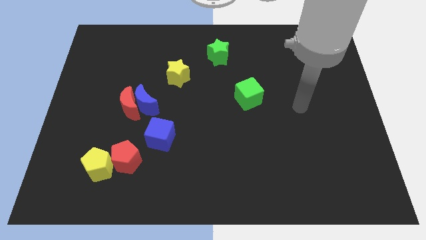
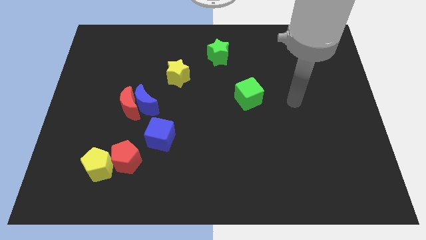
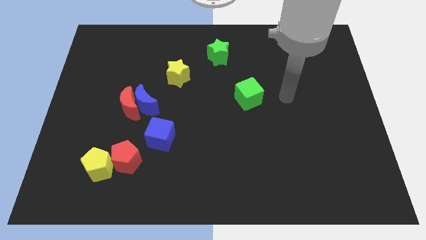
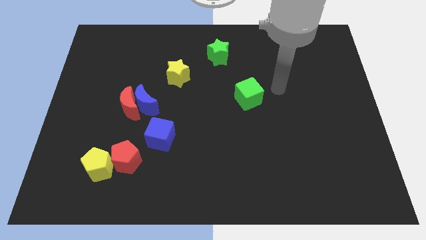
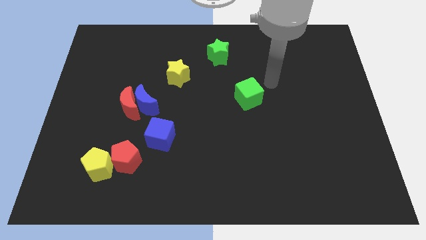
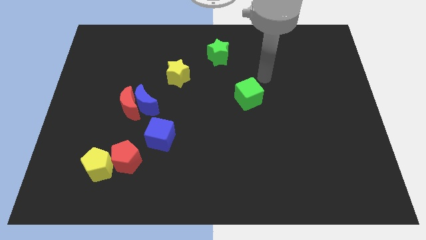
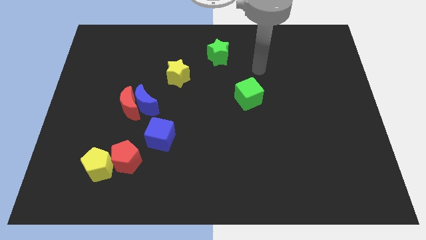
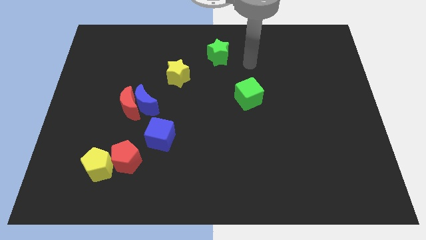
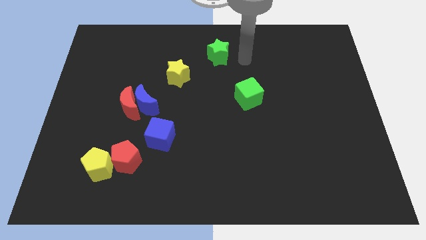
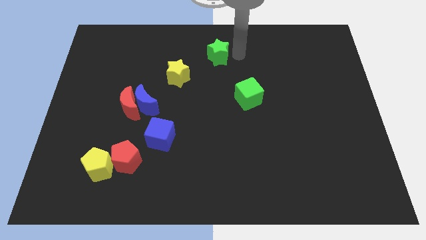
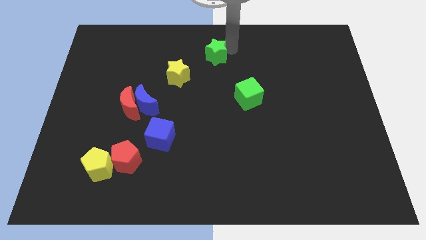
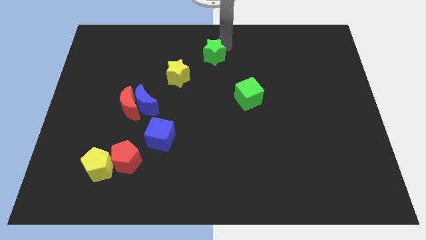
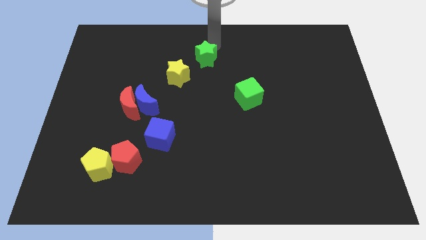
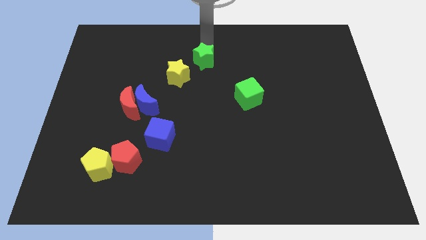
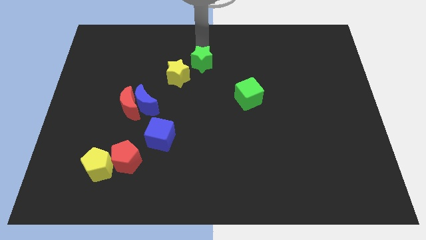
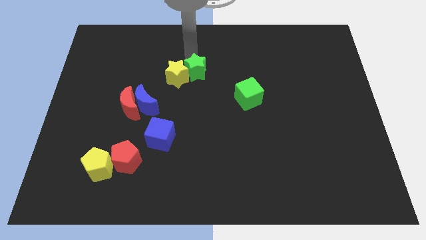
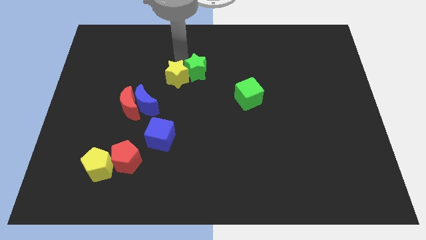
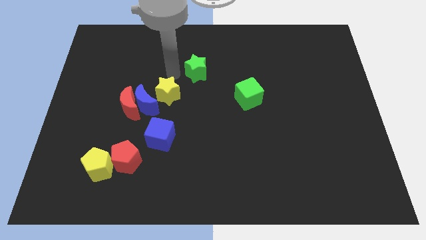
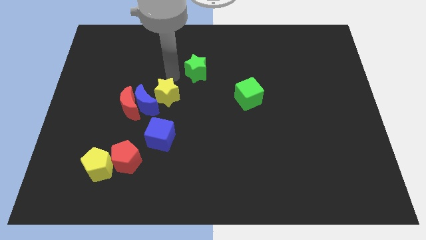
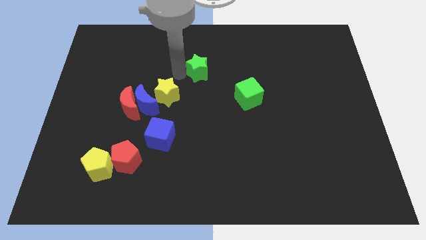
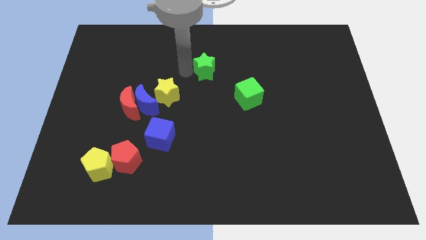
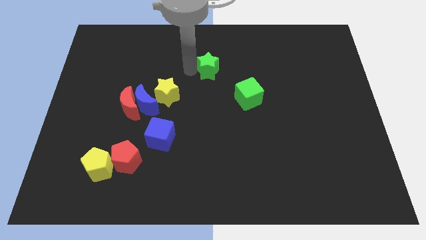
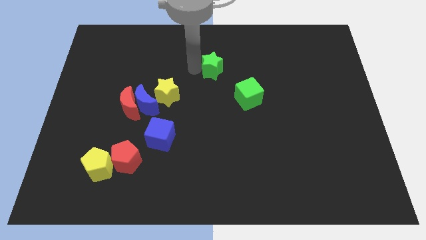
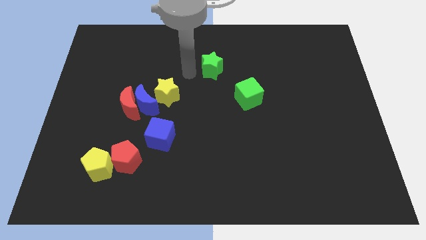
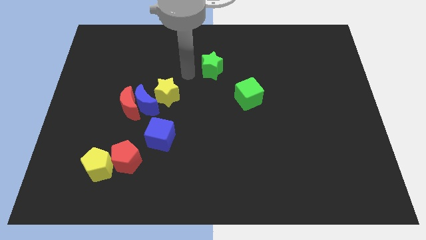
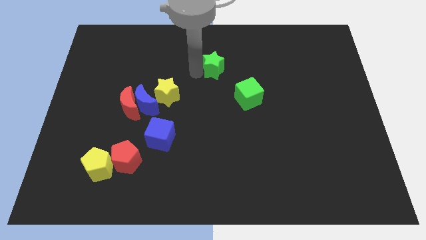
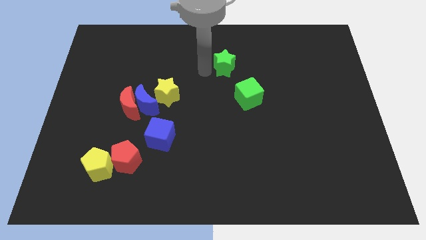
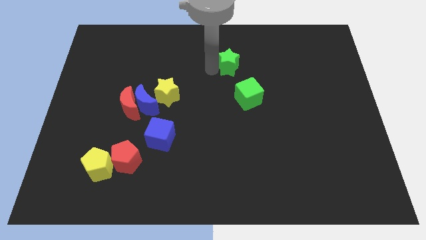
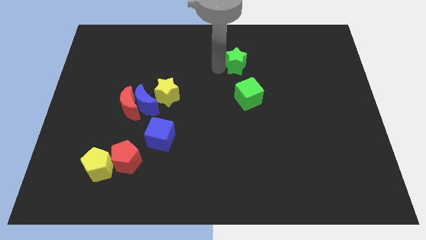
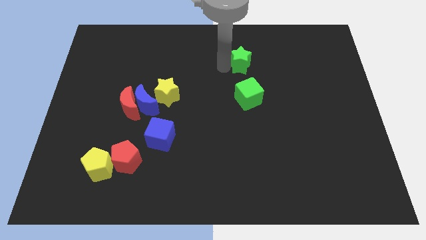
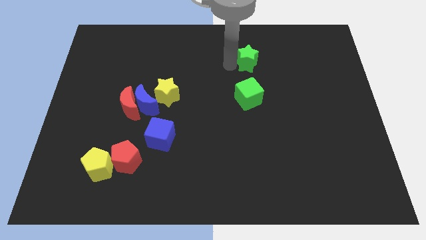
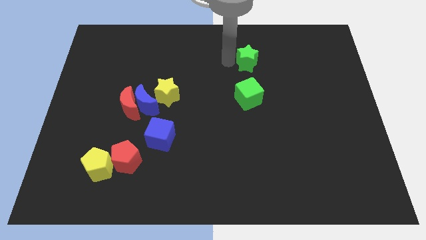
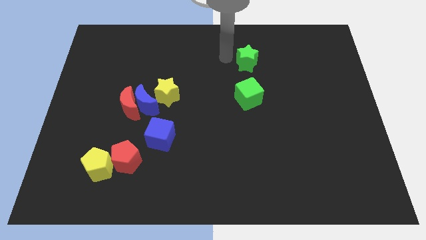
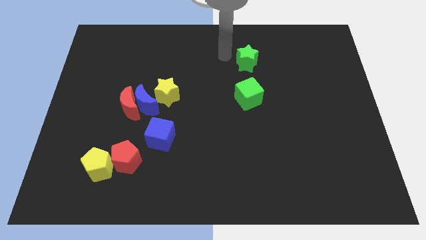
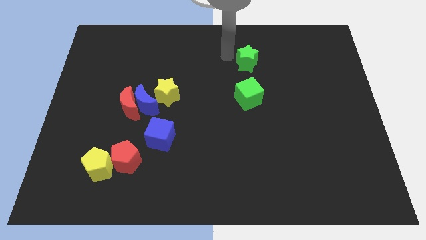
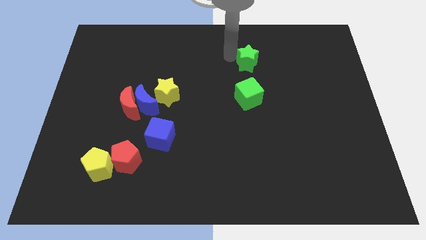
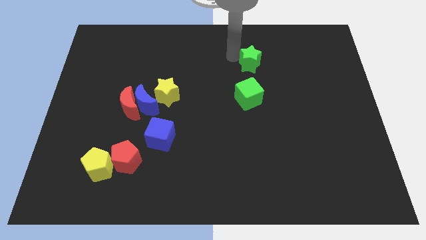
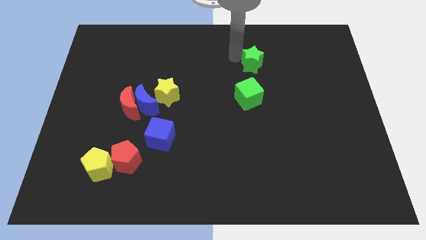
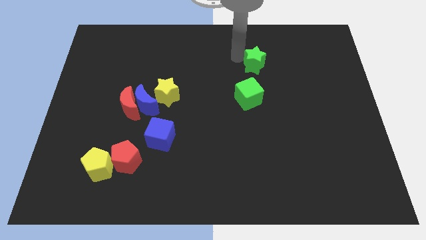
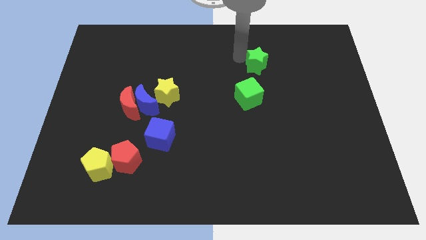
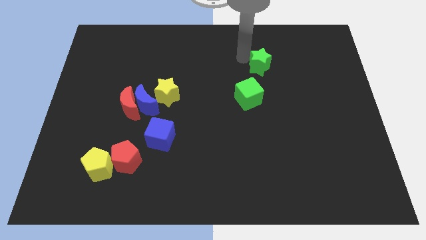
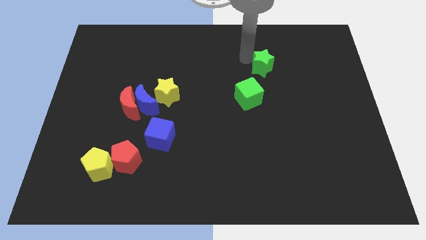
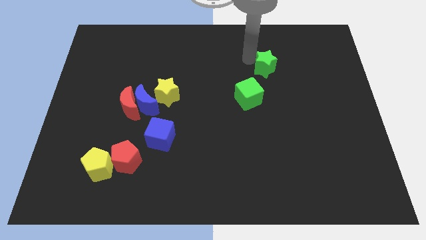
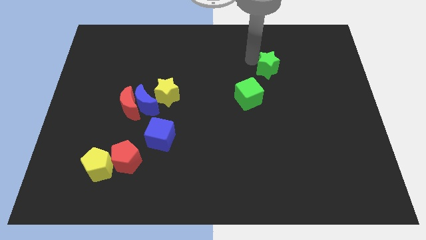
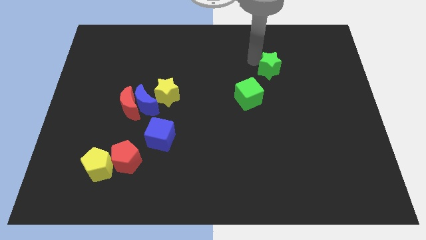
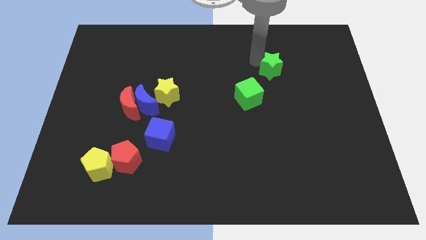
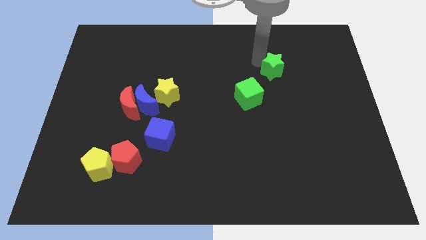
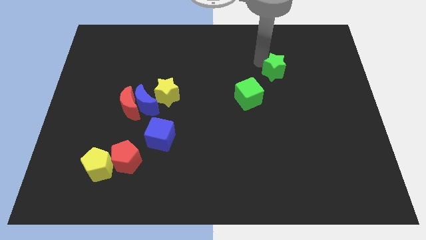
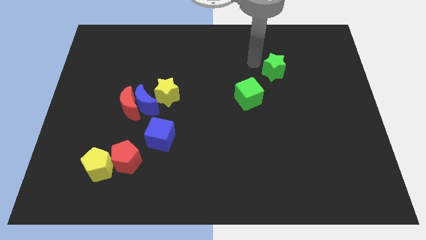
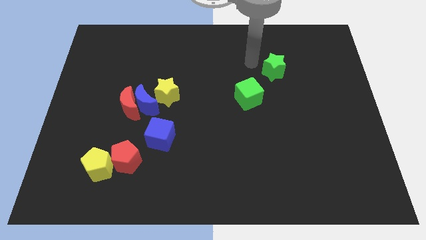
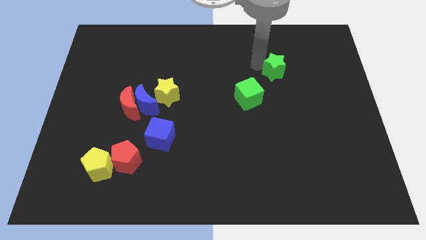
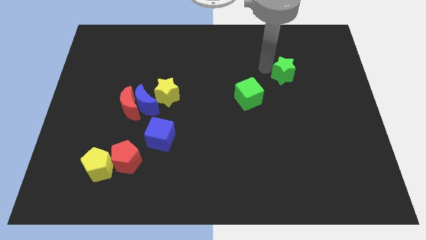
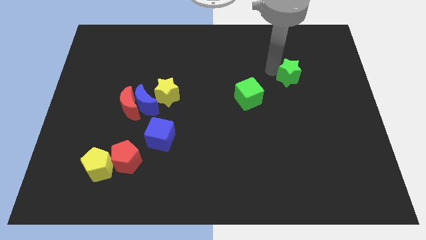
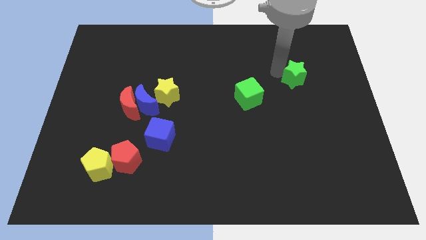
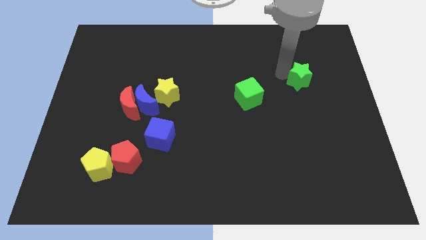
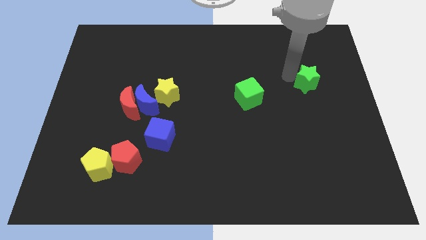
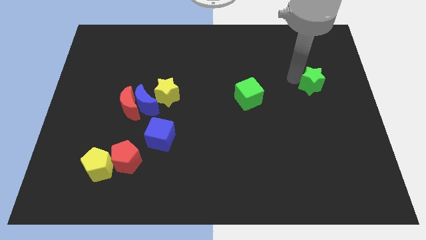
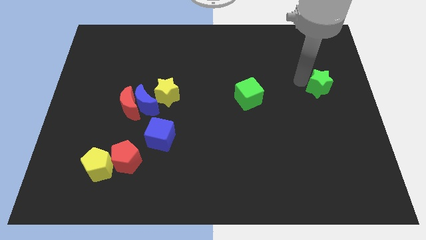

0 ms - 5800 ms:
slide the green star to the center right

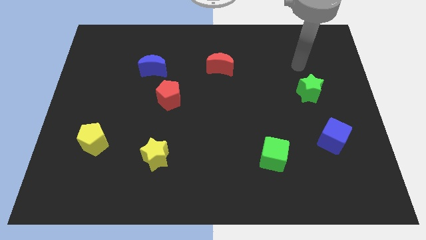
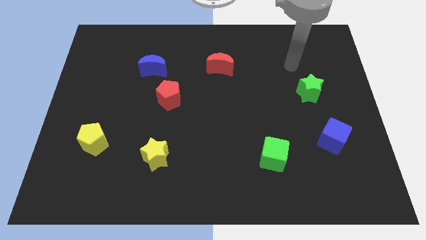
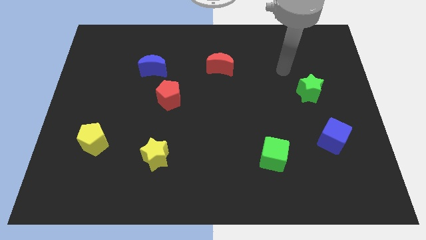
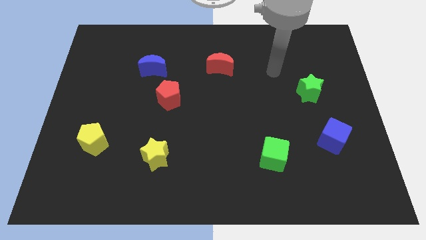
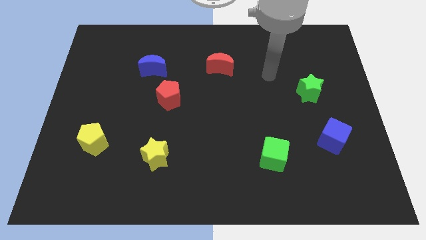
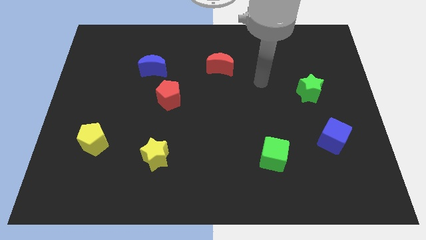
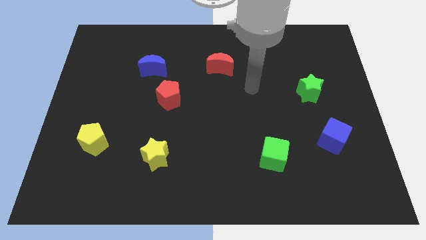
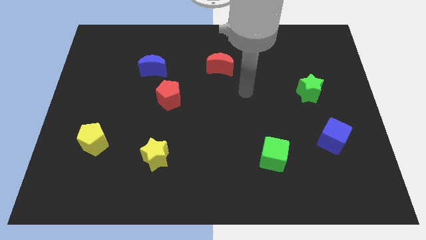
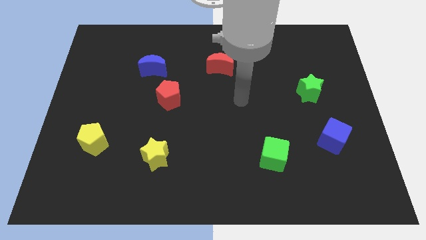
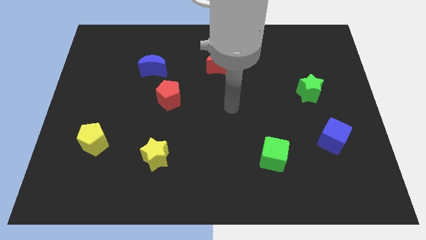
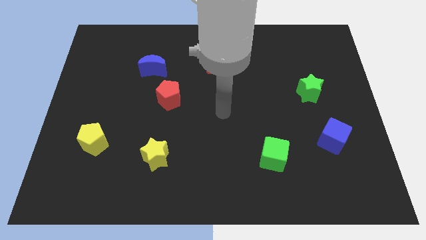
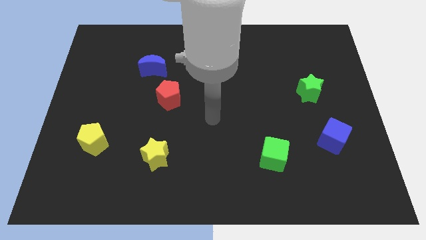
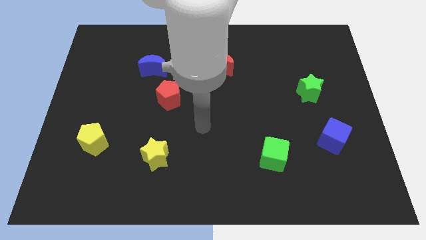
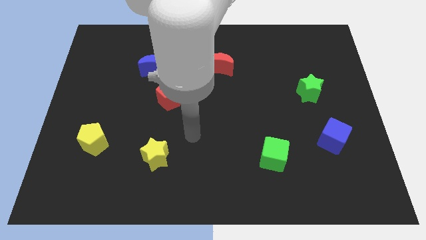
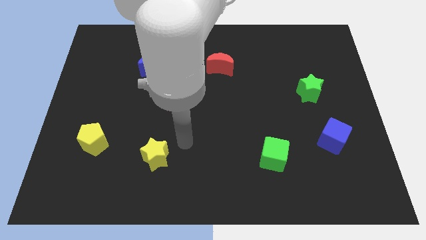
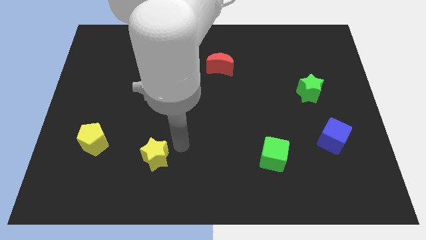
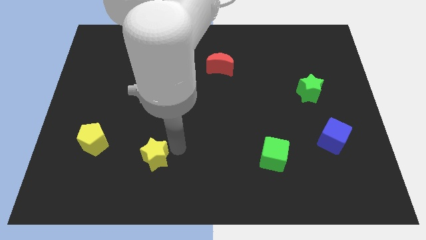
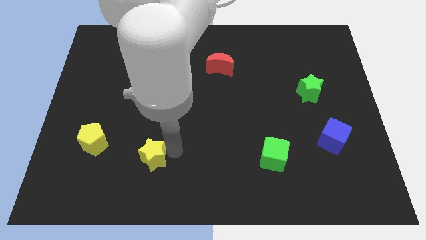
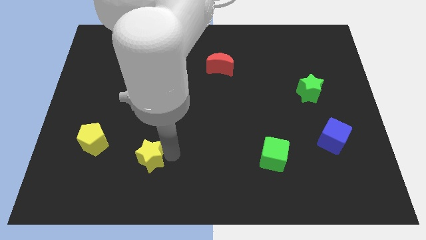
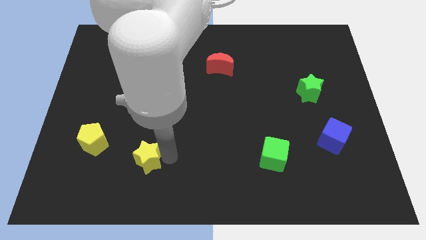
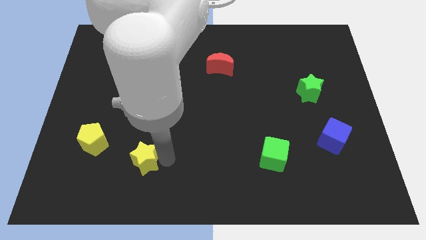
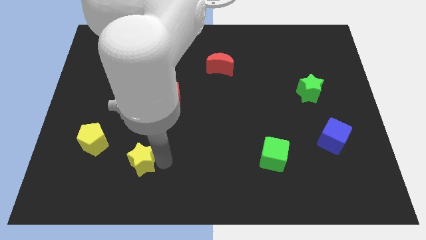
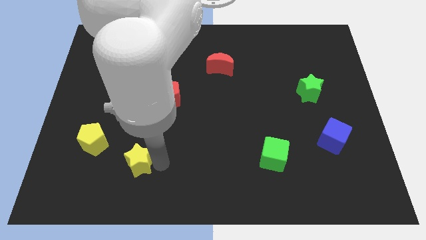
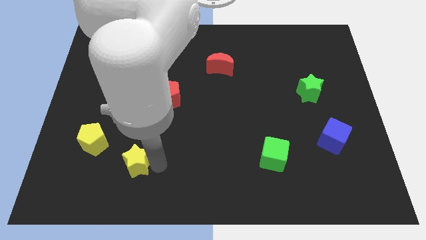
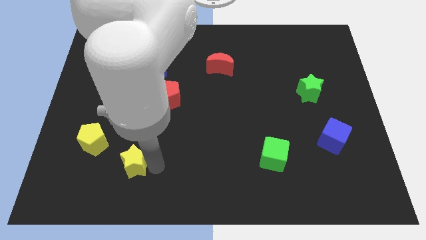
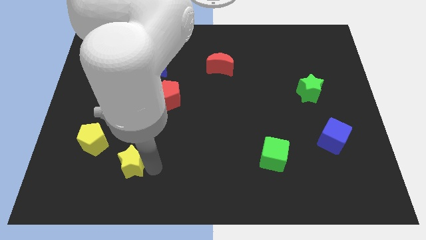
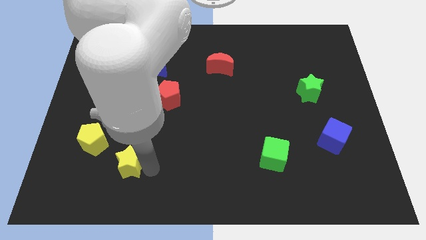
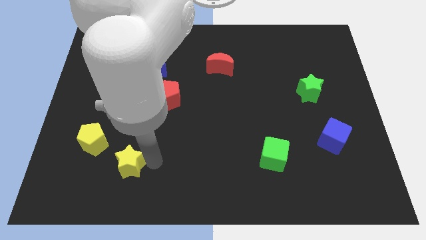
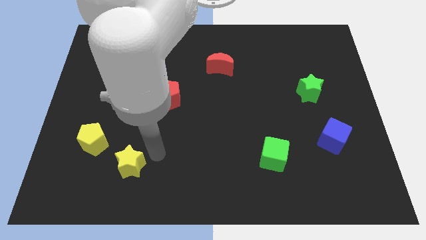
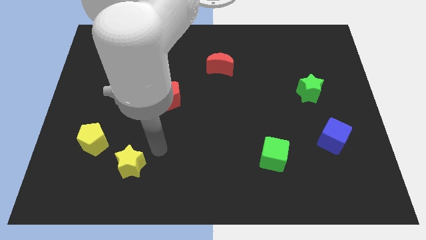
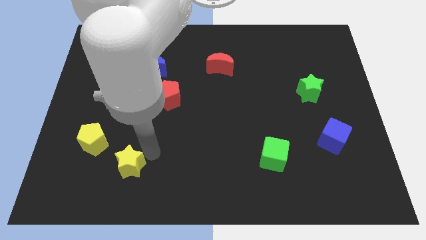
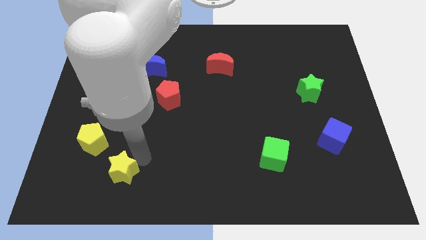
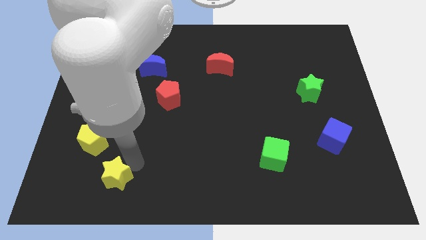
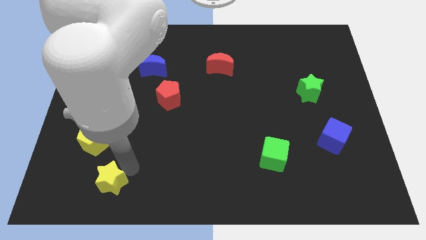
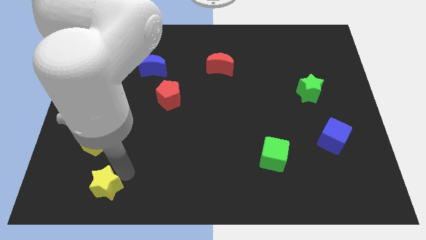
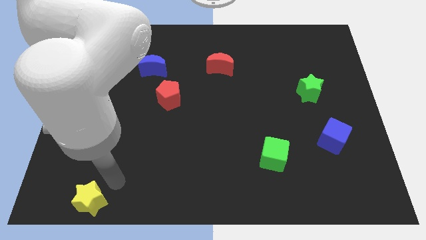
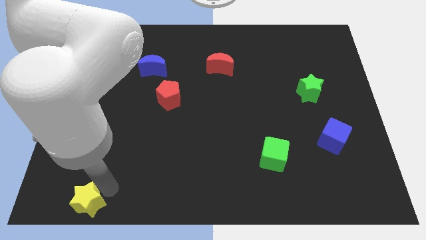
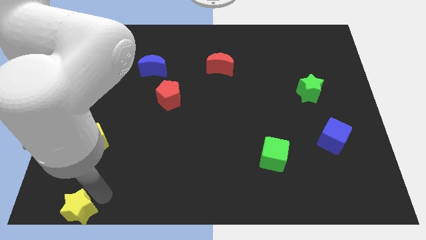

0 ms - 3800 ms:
push the yellow star to the bottom left corner
